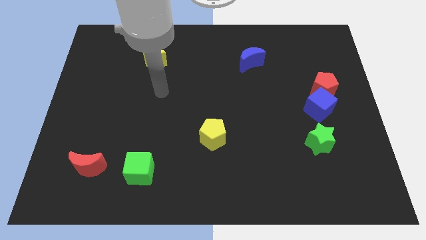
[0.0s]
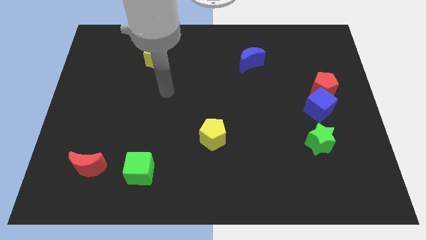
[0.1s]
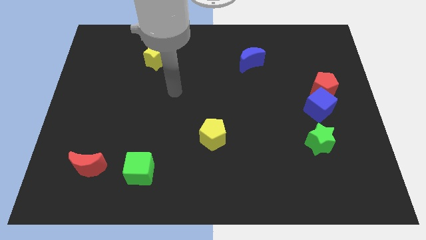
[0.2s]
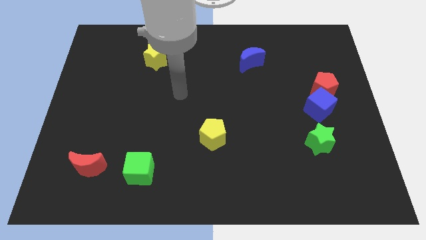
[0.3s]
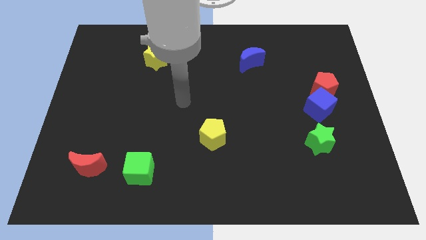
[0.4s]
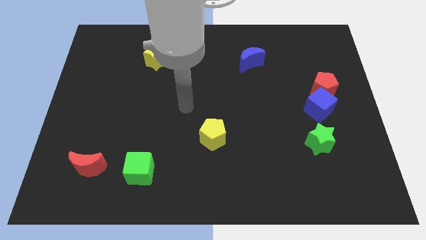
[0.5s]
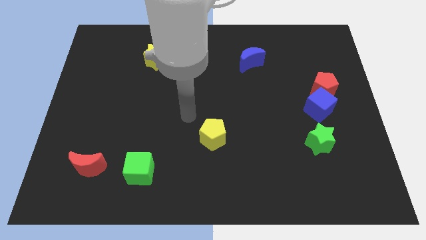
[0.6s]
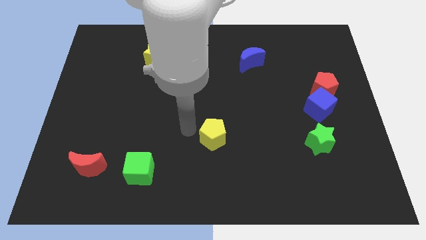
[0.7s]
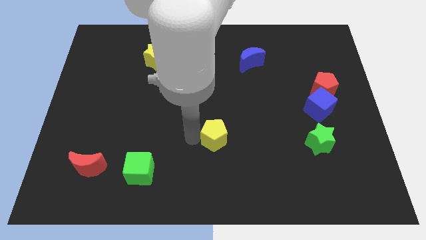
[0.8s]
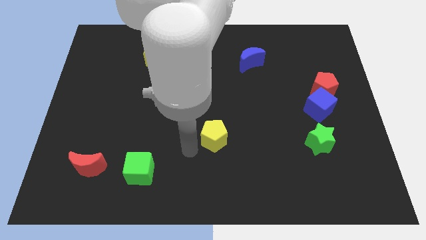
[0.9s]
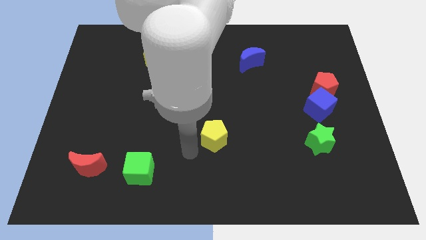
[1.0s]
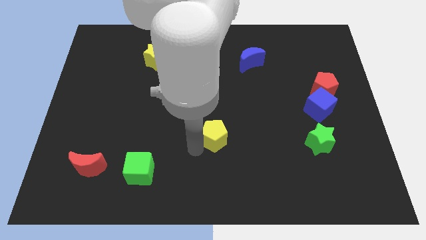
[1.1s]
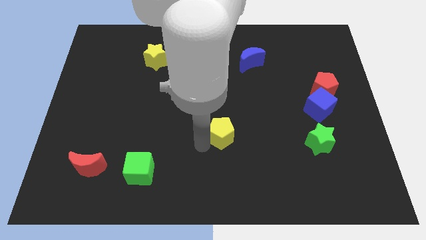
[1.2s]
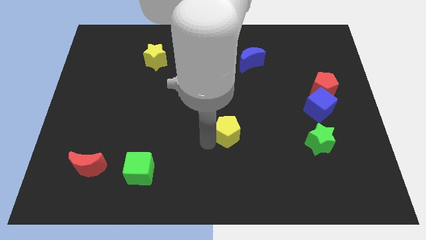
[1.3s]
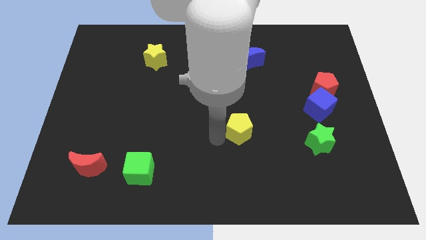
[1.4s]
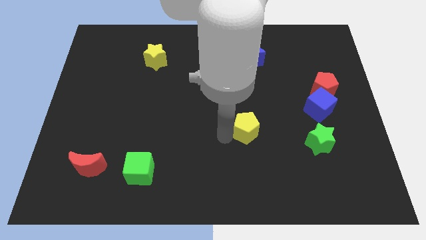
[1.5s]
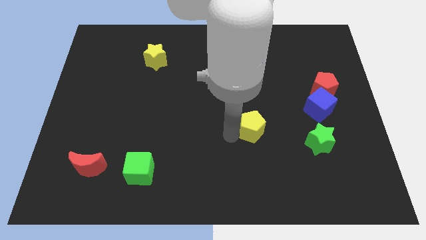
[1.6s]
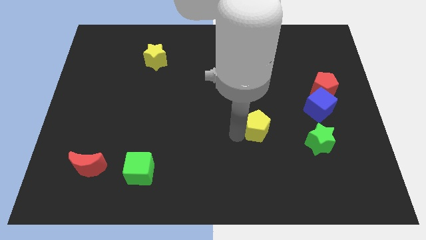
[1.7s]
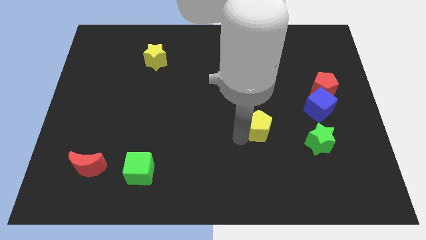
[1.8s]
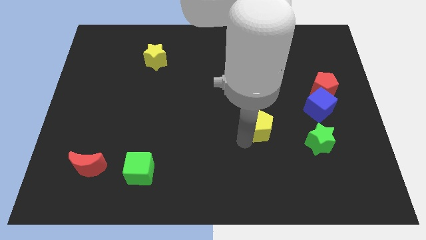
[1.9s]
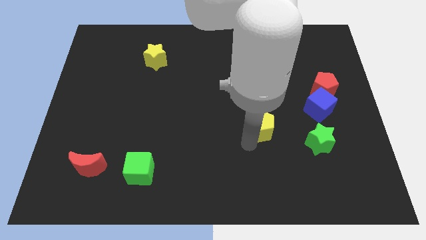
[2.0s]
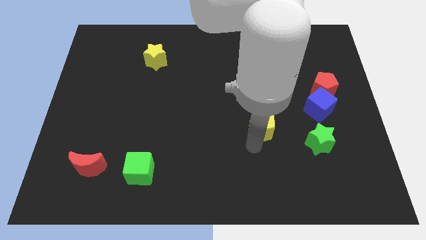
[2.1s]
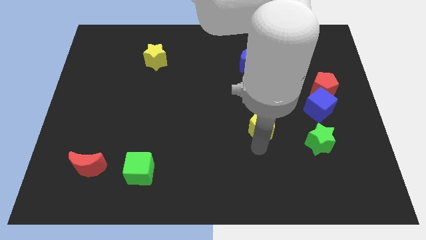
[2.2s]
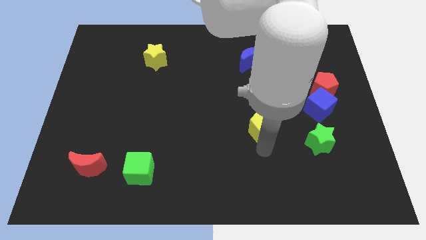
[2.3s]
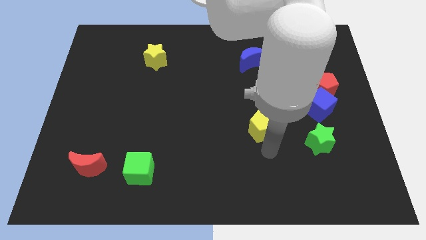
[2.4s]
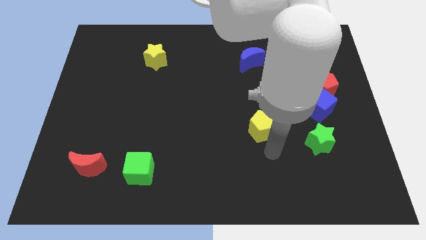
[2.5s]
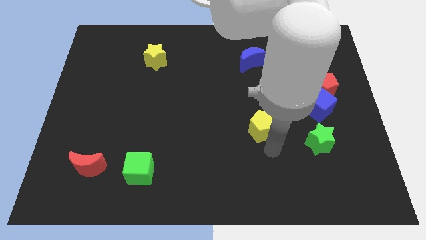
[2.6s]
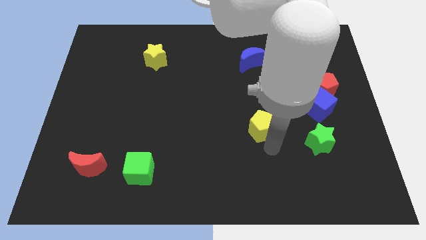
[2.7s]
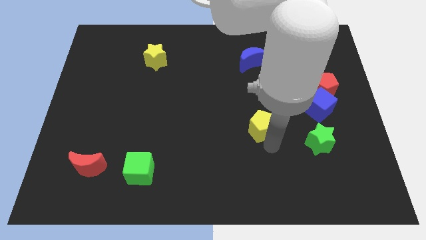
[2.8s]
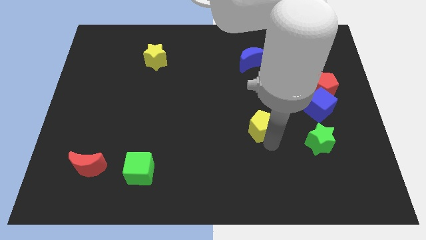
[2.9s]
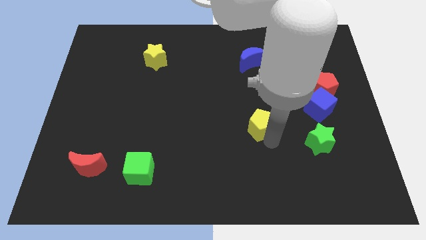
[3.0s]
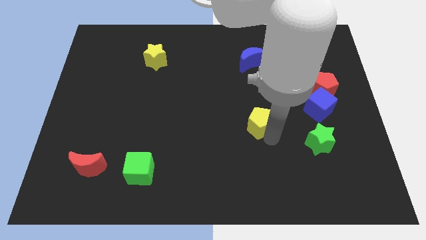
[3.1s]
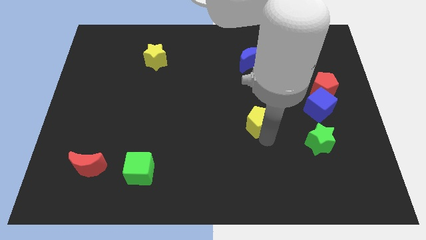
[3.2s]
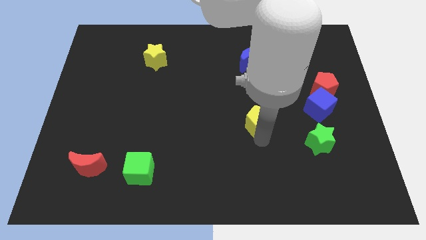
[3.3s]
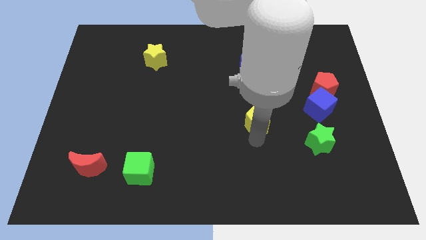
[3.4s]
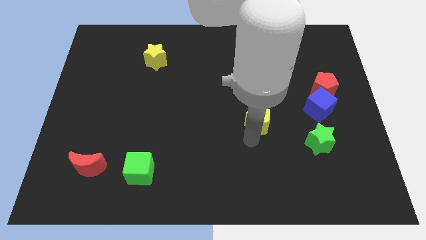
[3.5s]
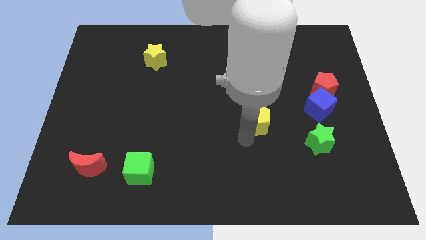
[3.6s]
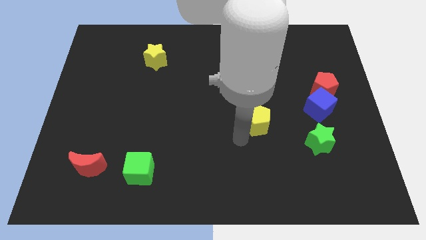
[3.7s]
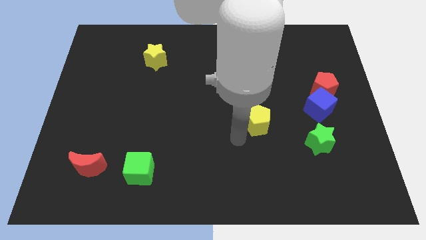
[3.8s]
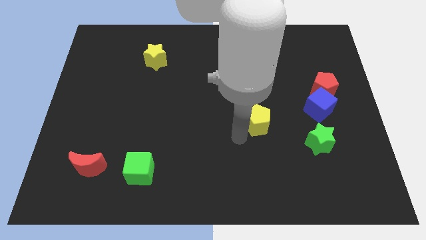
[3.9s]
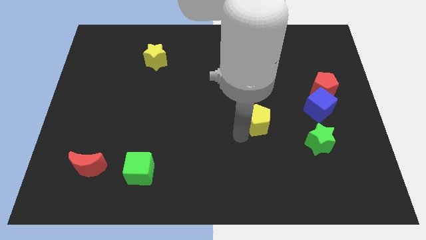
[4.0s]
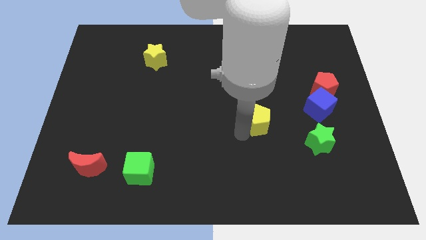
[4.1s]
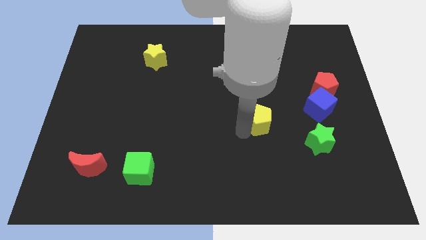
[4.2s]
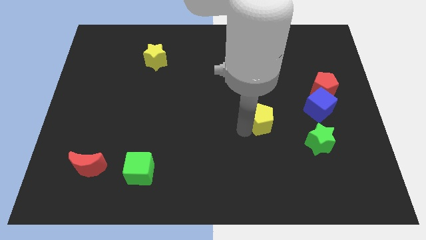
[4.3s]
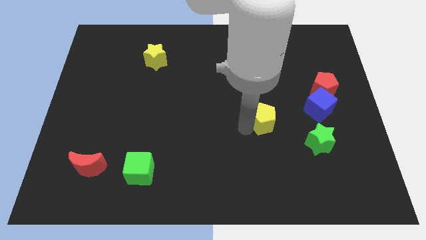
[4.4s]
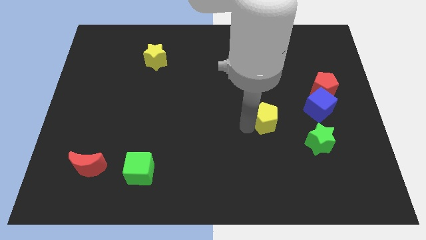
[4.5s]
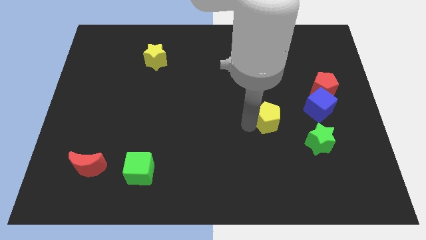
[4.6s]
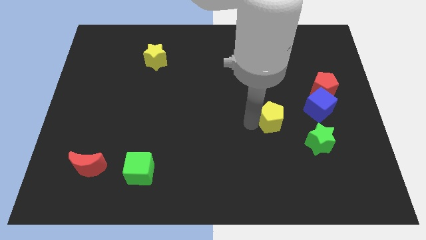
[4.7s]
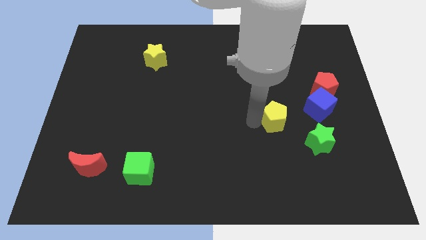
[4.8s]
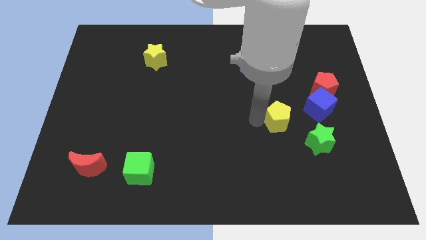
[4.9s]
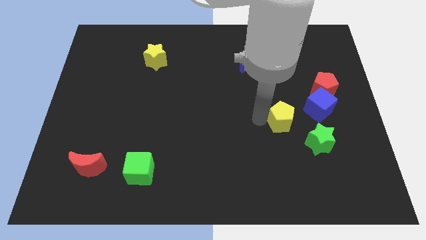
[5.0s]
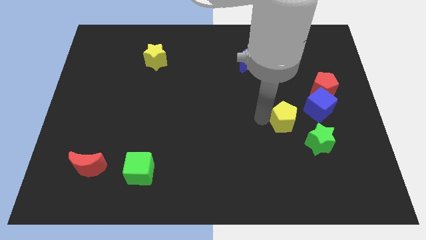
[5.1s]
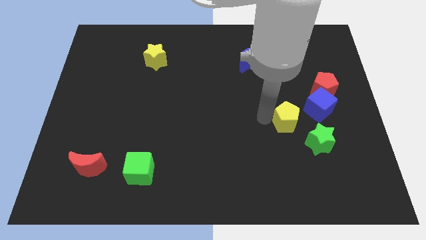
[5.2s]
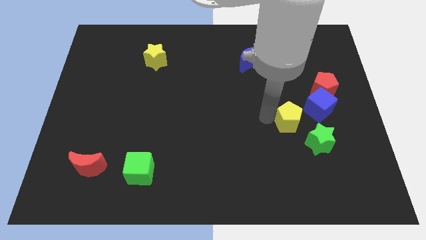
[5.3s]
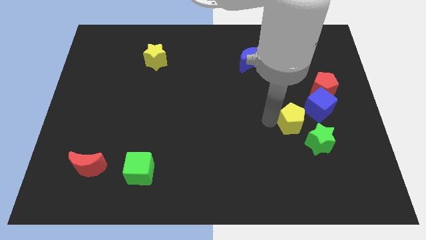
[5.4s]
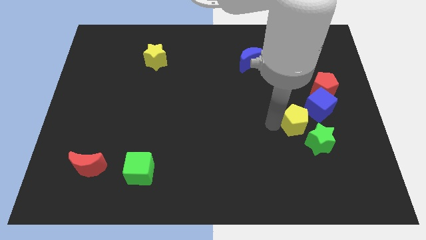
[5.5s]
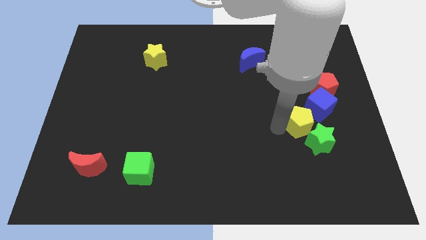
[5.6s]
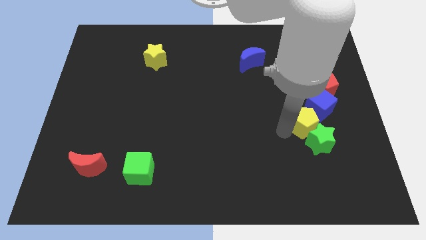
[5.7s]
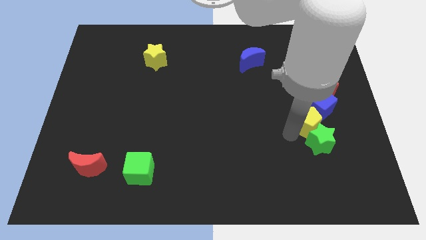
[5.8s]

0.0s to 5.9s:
put the yellow pentagon next to the blue cube

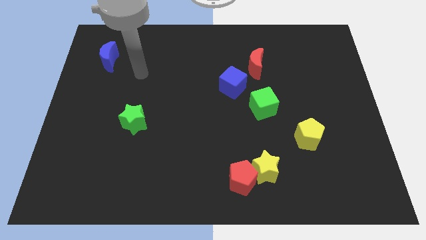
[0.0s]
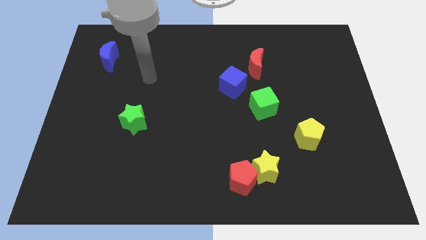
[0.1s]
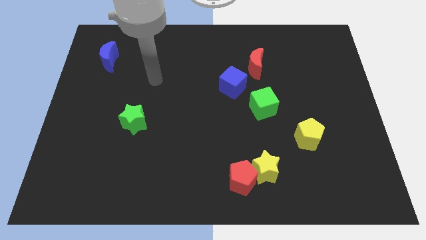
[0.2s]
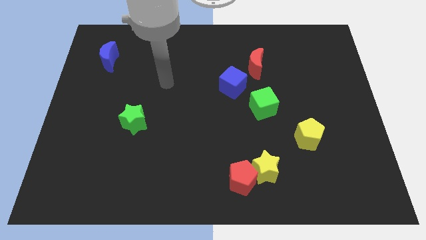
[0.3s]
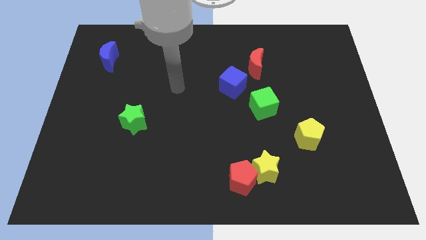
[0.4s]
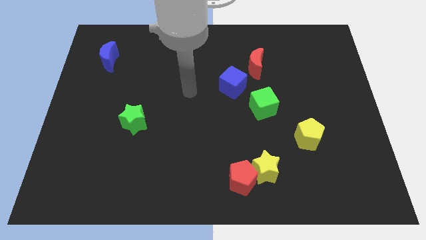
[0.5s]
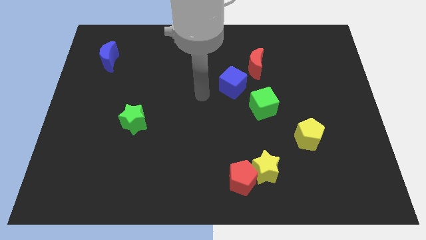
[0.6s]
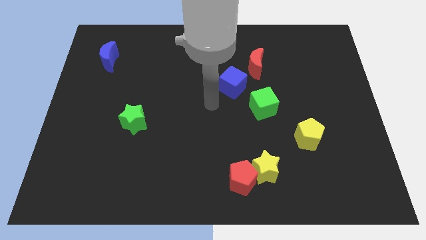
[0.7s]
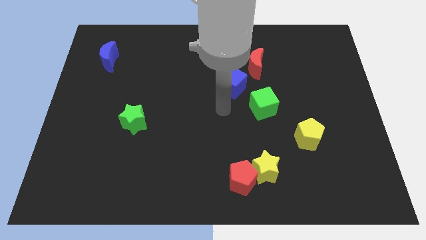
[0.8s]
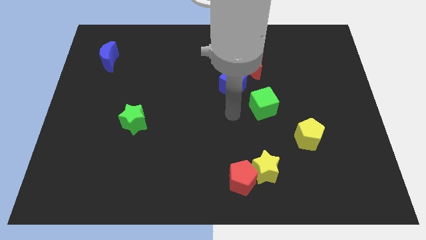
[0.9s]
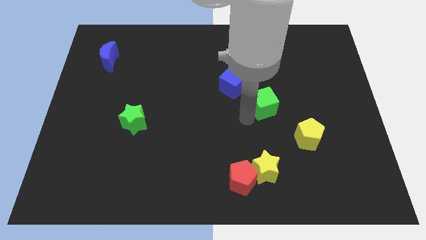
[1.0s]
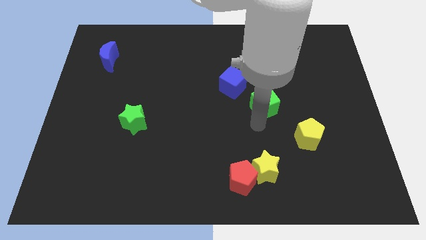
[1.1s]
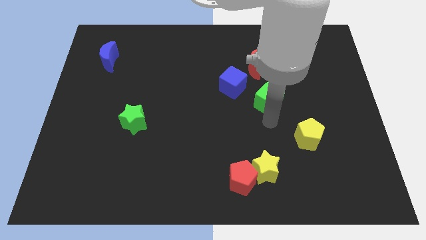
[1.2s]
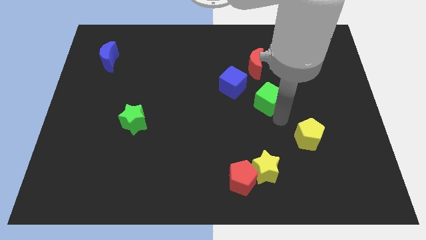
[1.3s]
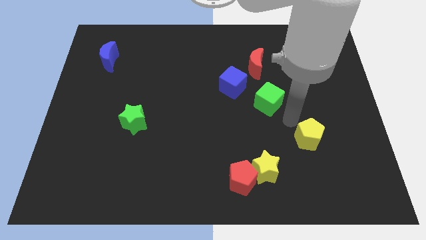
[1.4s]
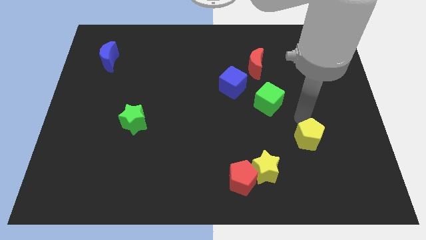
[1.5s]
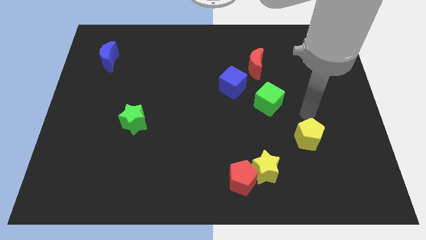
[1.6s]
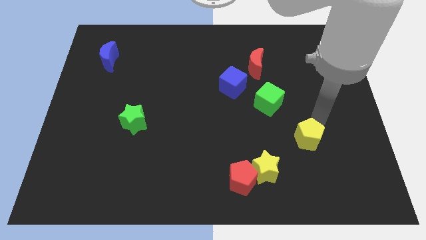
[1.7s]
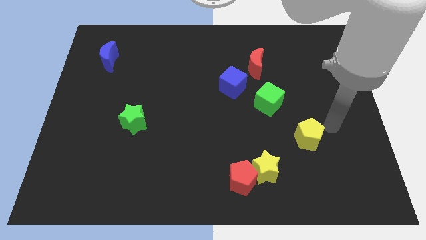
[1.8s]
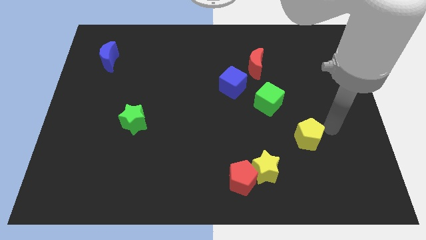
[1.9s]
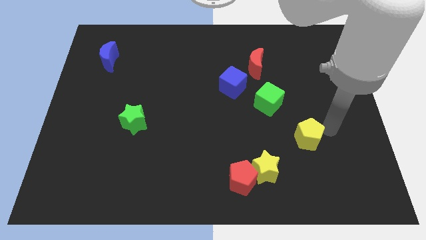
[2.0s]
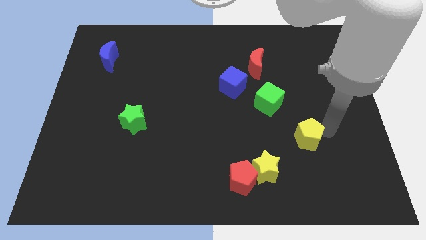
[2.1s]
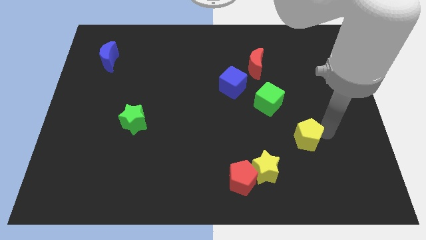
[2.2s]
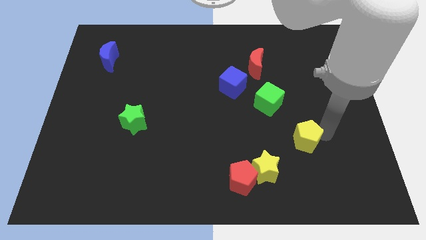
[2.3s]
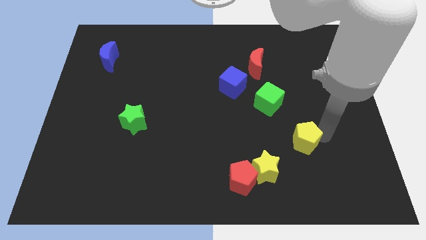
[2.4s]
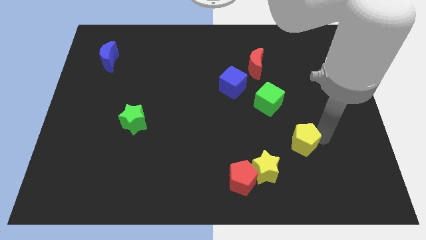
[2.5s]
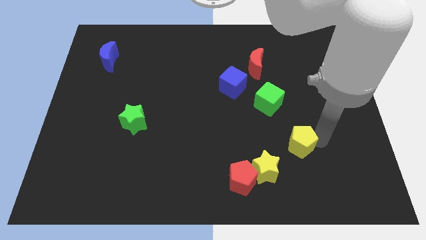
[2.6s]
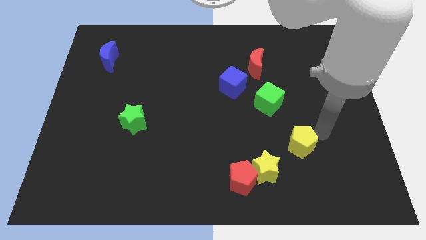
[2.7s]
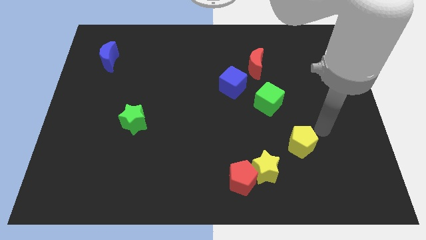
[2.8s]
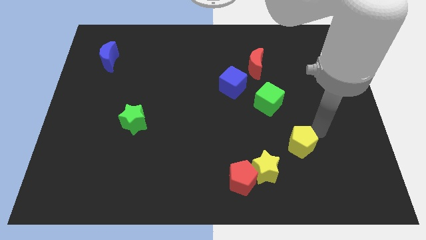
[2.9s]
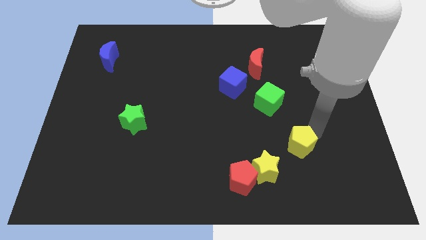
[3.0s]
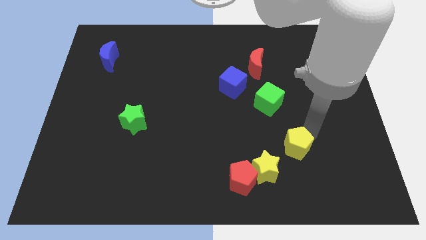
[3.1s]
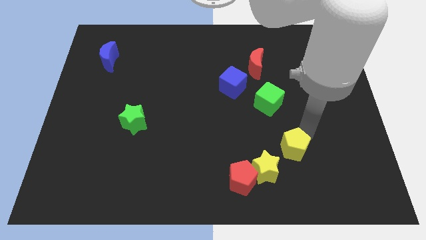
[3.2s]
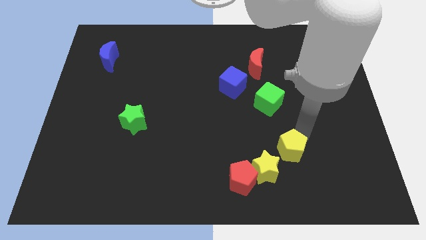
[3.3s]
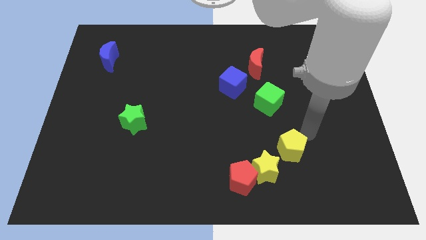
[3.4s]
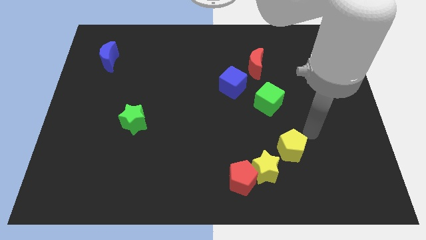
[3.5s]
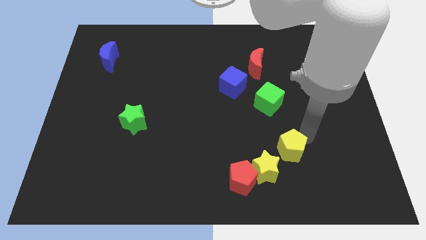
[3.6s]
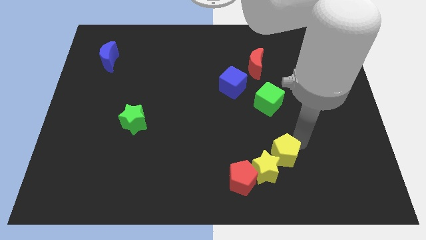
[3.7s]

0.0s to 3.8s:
move the yellow pentagon close to the yellow star
